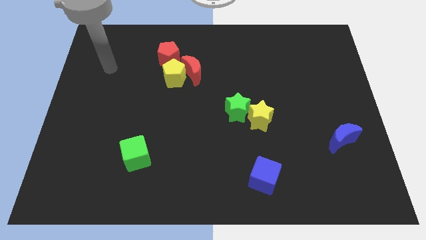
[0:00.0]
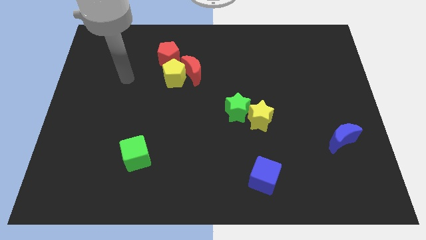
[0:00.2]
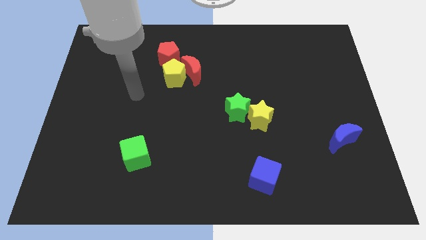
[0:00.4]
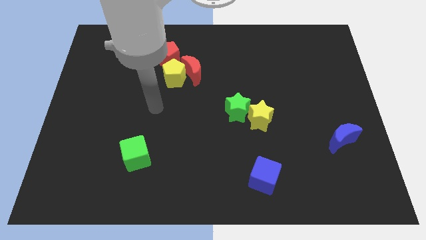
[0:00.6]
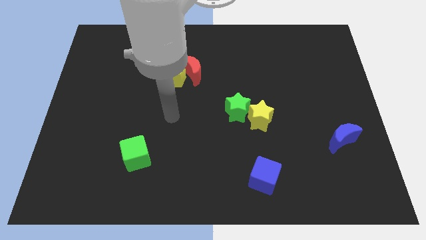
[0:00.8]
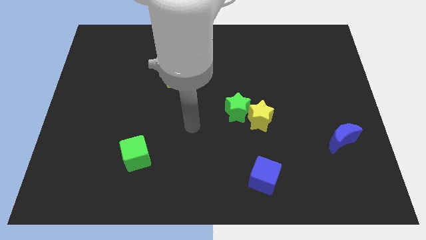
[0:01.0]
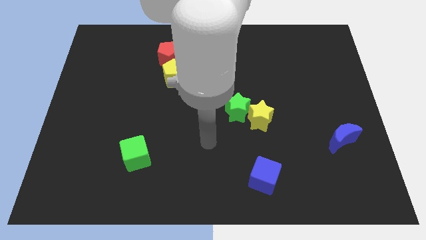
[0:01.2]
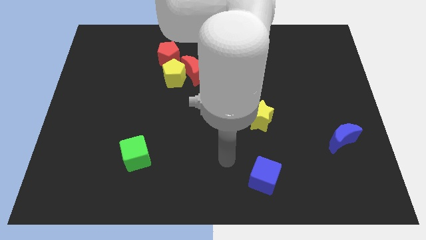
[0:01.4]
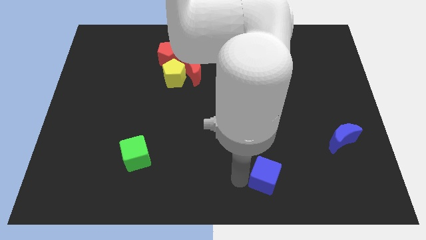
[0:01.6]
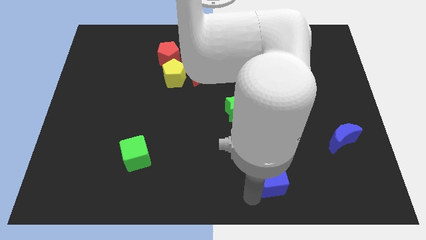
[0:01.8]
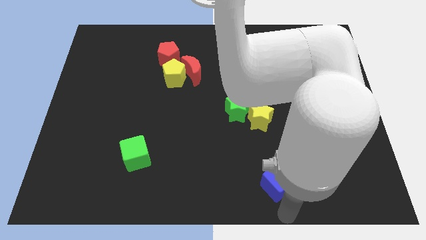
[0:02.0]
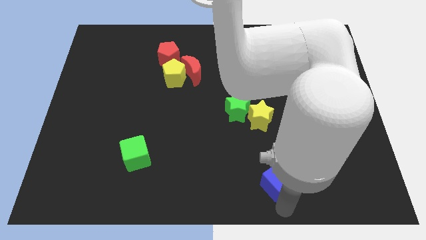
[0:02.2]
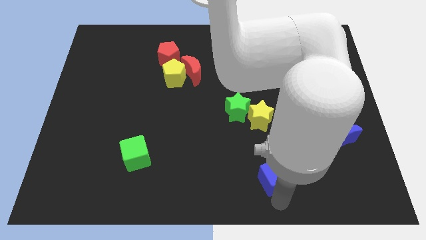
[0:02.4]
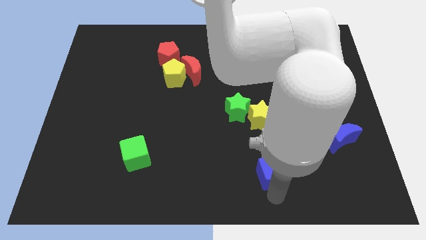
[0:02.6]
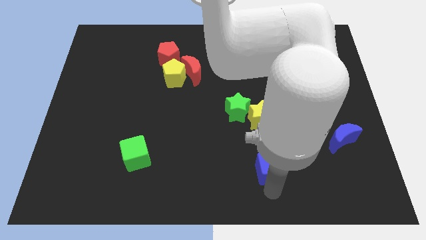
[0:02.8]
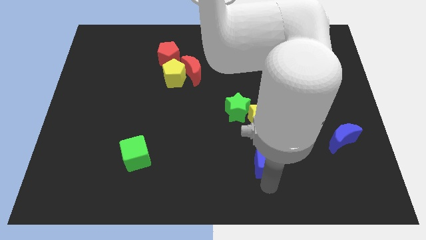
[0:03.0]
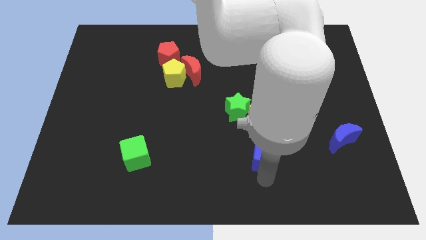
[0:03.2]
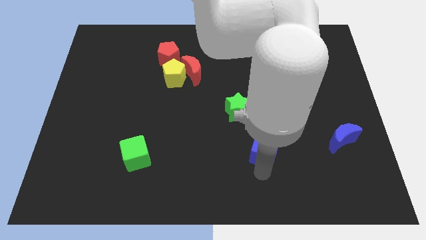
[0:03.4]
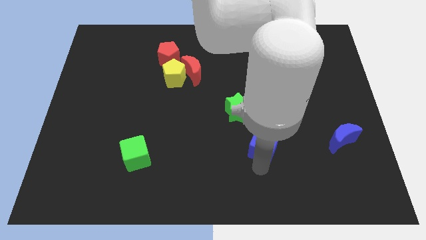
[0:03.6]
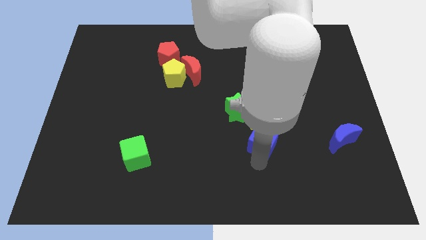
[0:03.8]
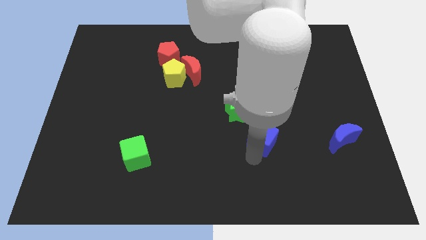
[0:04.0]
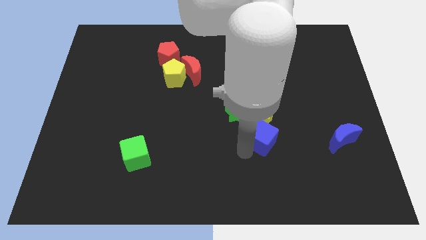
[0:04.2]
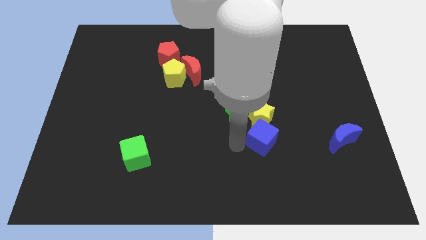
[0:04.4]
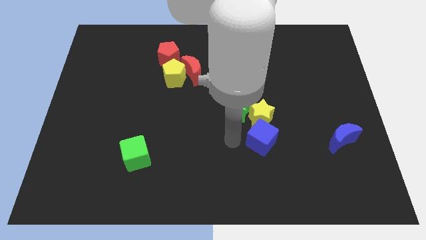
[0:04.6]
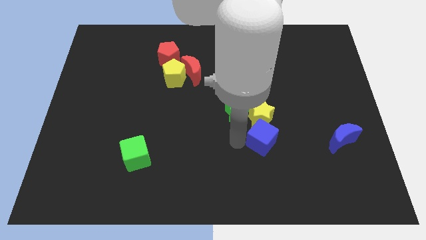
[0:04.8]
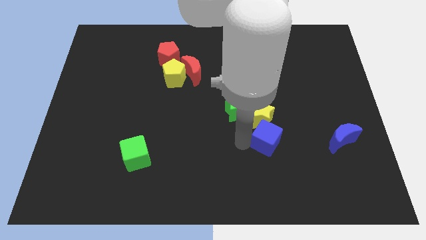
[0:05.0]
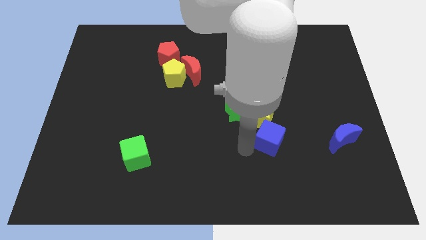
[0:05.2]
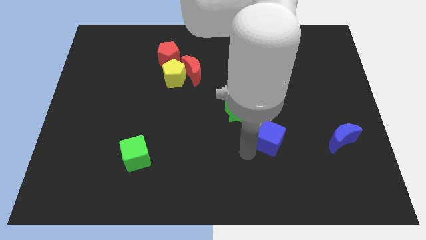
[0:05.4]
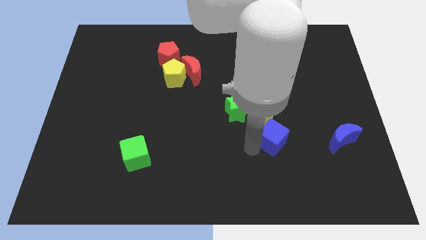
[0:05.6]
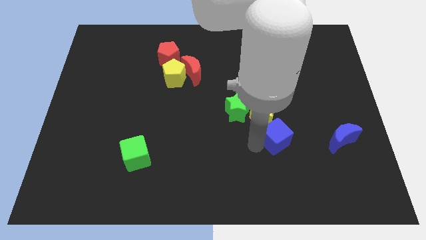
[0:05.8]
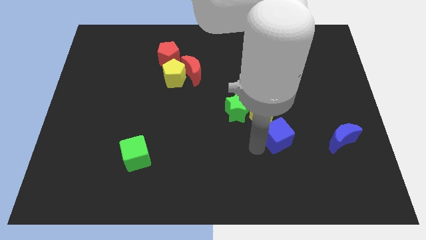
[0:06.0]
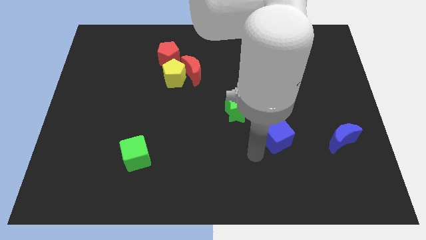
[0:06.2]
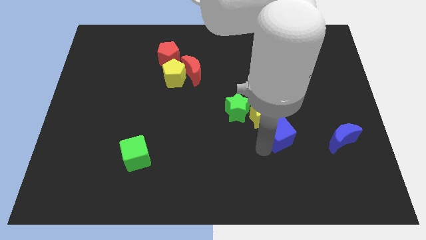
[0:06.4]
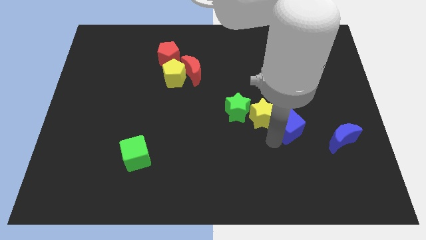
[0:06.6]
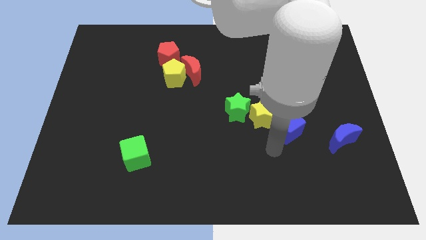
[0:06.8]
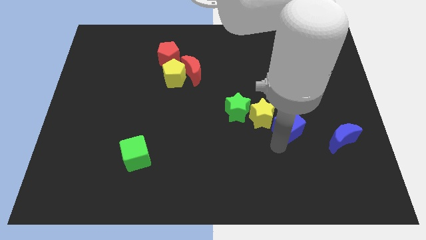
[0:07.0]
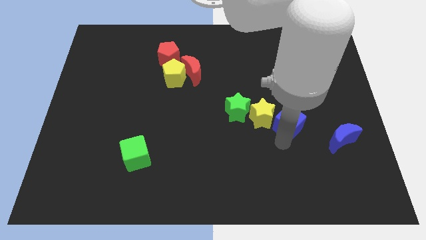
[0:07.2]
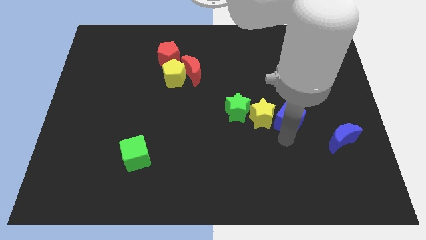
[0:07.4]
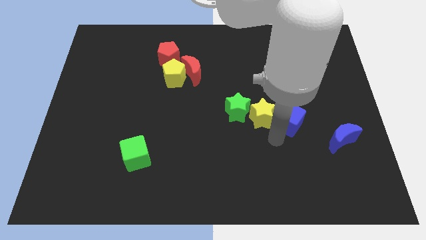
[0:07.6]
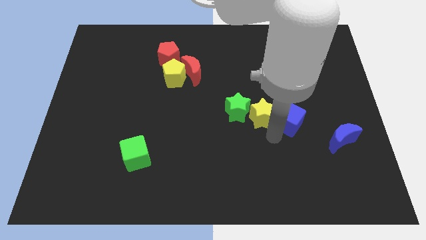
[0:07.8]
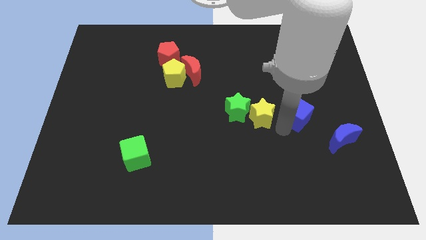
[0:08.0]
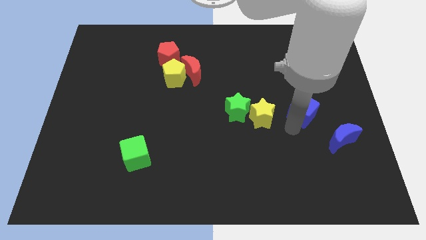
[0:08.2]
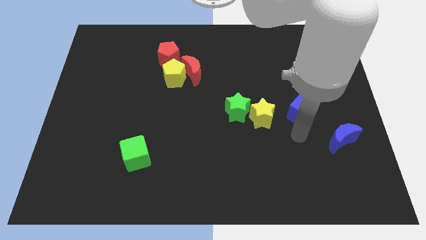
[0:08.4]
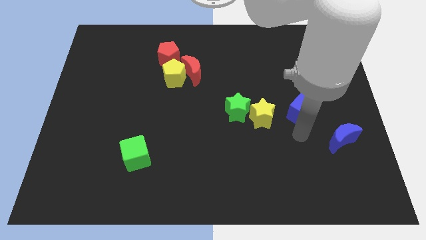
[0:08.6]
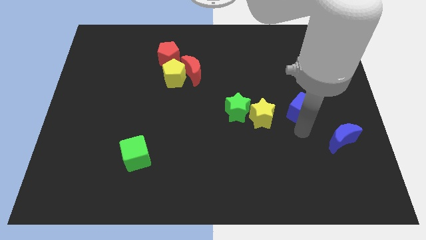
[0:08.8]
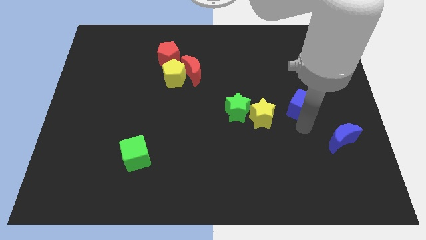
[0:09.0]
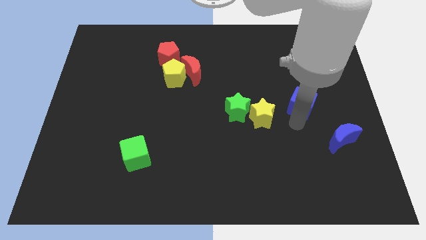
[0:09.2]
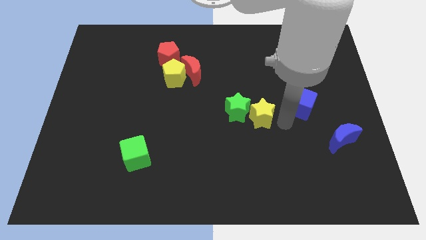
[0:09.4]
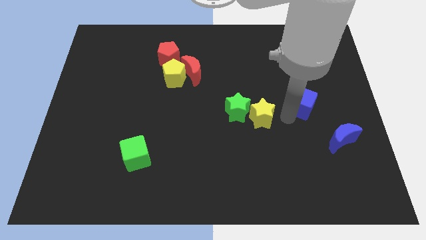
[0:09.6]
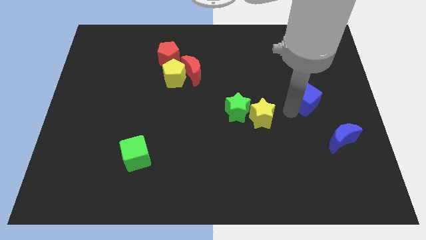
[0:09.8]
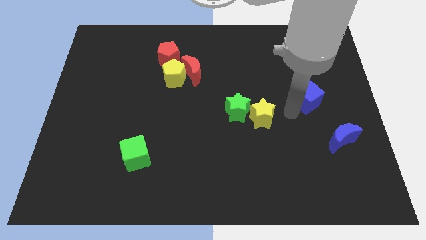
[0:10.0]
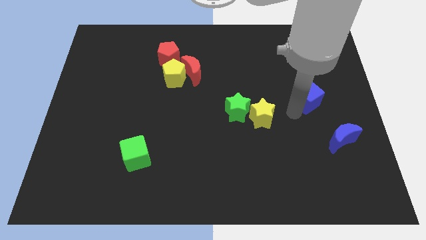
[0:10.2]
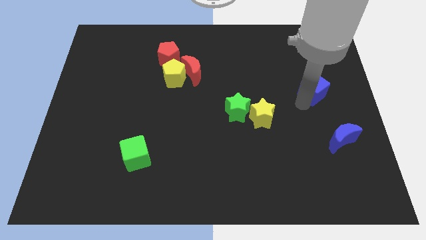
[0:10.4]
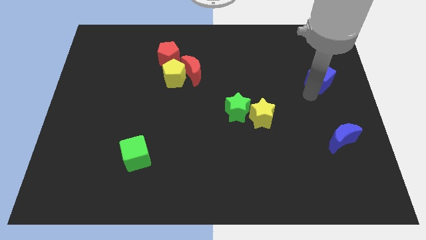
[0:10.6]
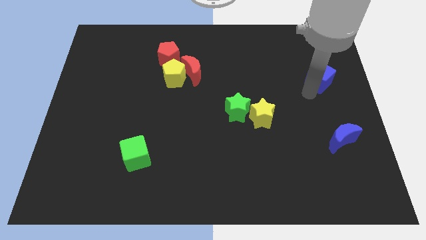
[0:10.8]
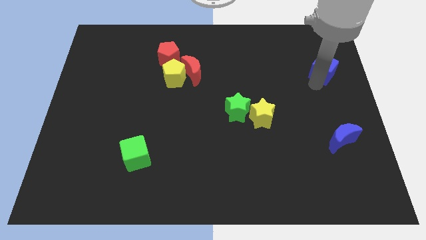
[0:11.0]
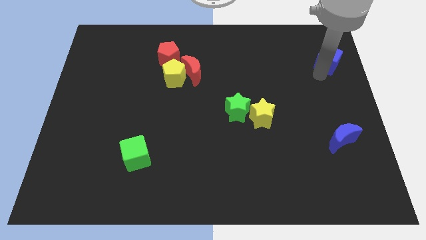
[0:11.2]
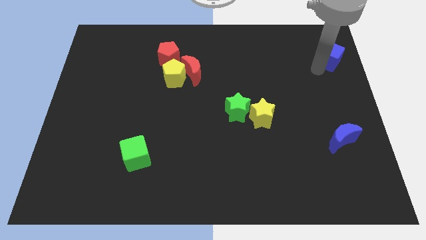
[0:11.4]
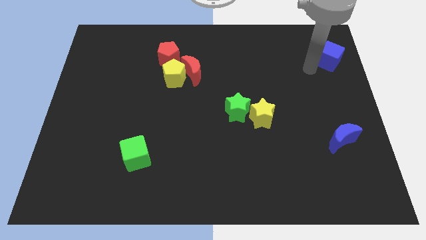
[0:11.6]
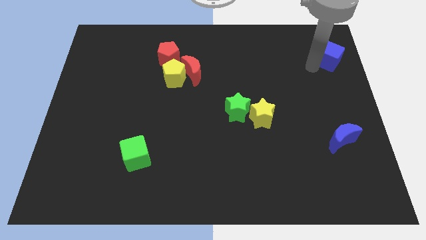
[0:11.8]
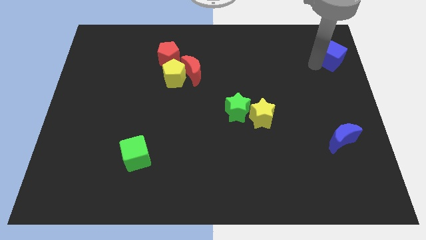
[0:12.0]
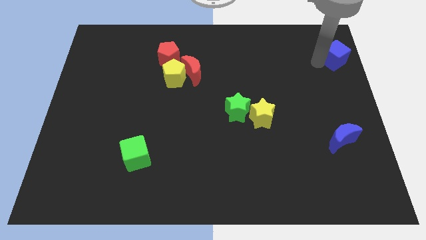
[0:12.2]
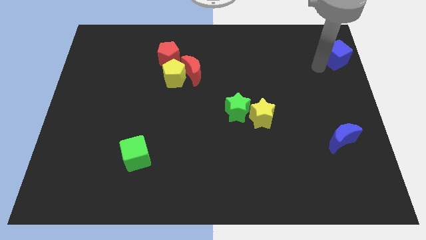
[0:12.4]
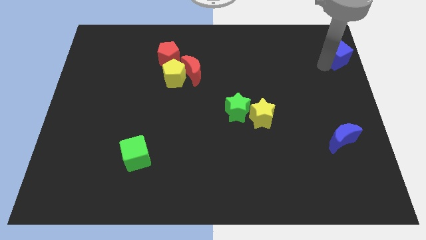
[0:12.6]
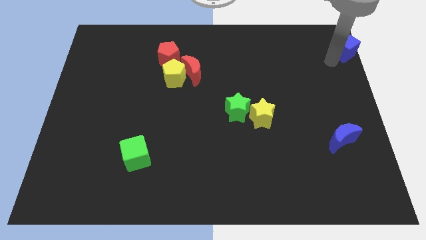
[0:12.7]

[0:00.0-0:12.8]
slide the blue cube to the upper right corner
